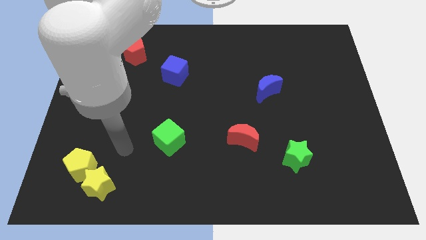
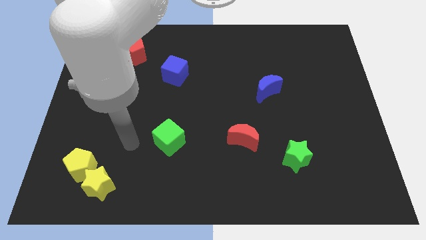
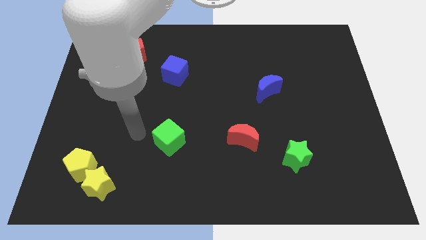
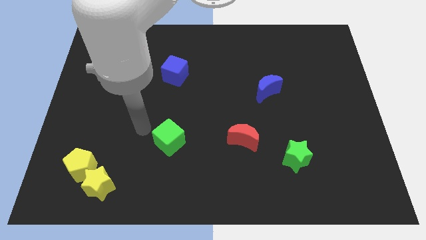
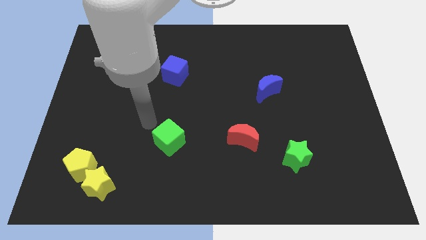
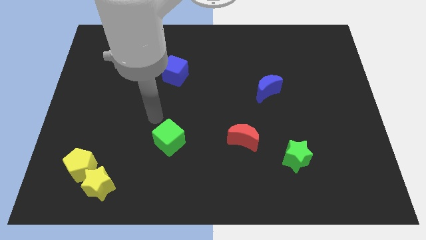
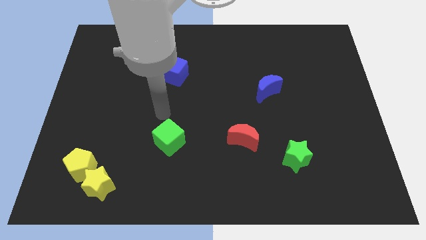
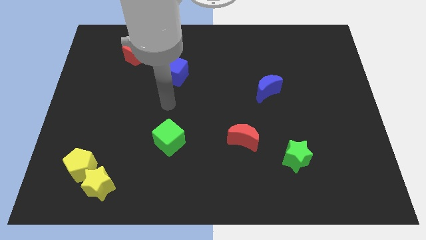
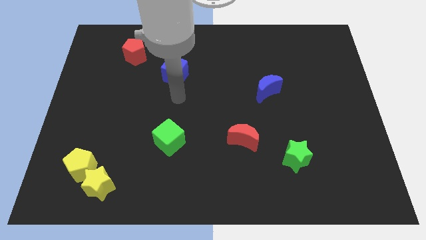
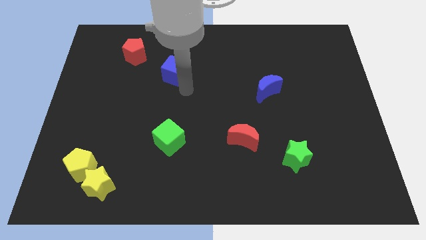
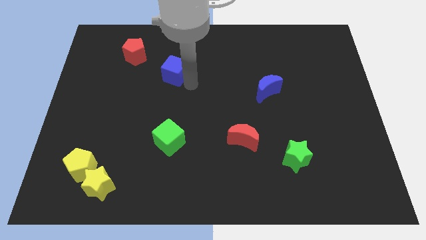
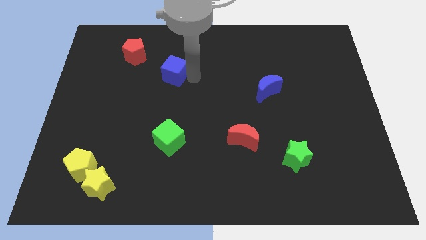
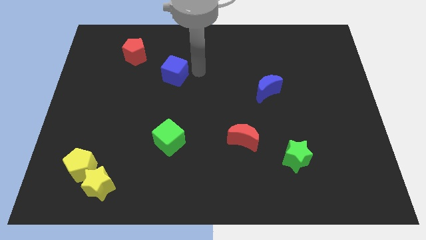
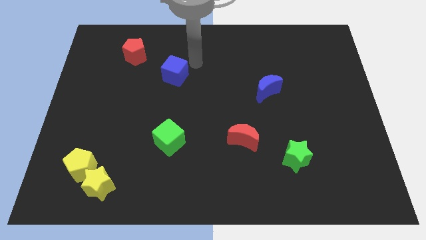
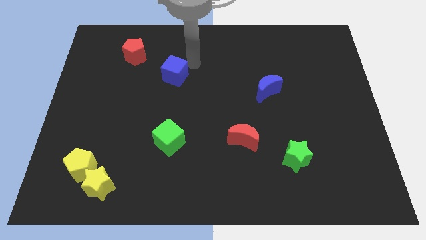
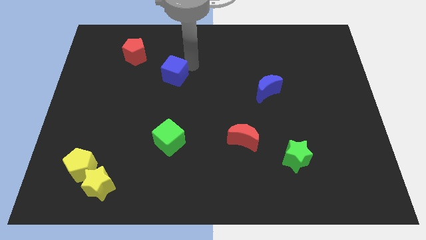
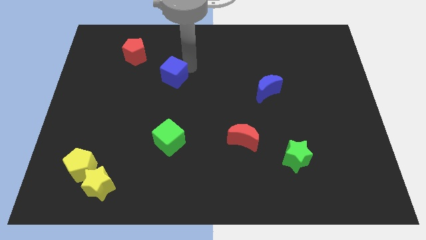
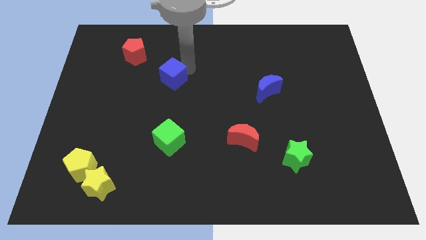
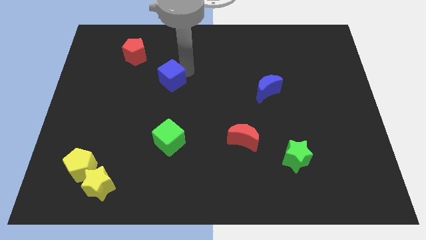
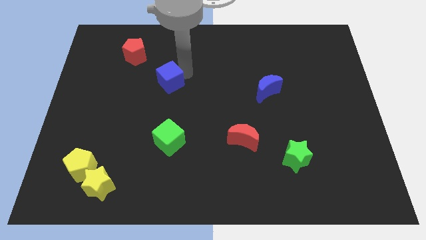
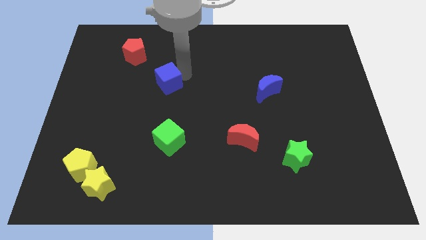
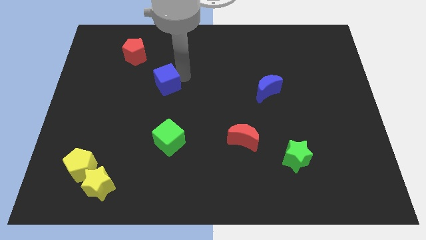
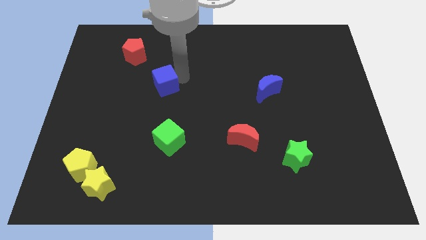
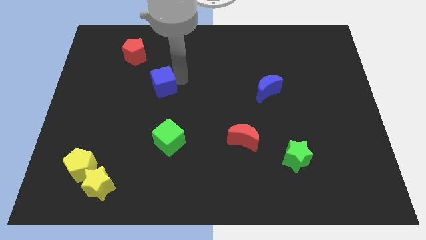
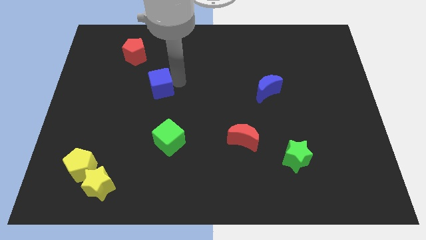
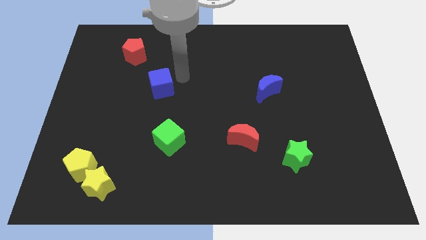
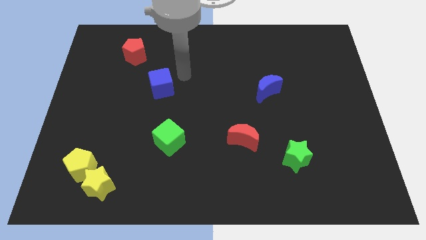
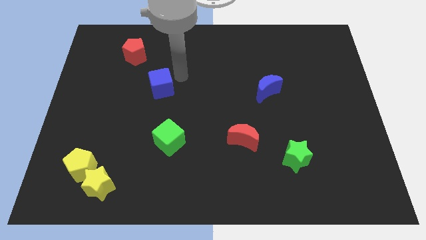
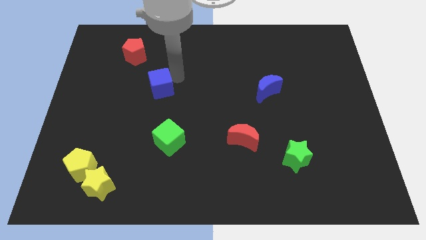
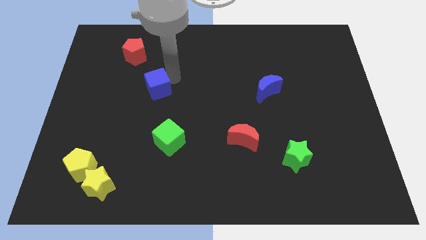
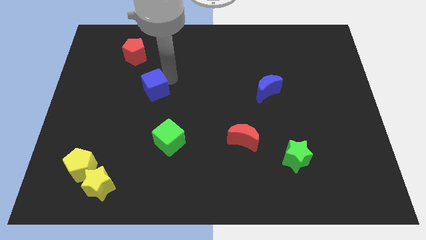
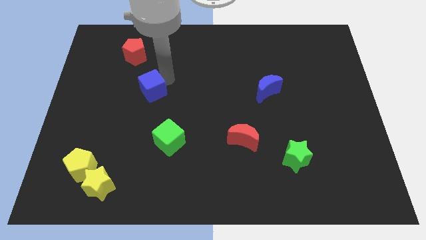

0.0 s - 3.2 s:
move the blue cube down and to the left diagonally a little bit

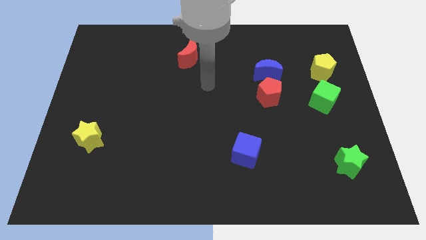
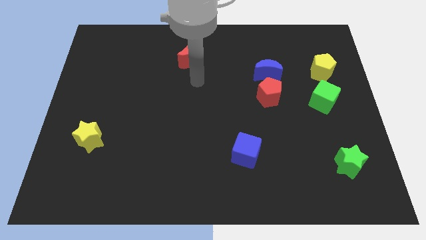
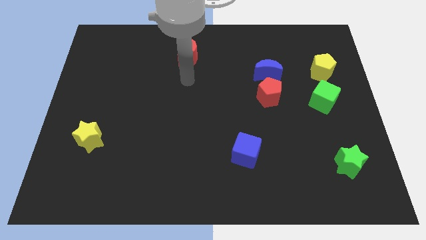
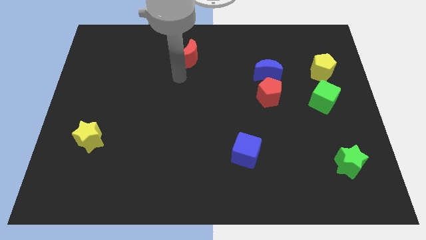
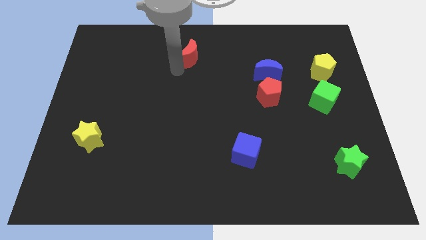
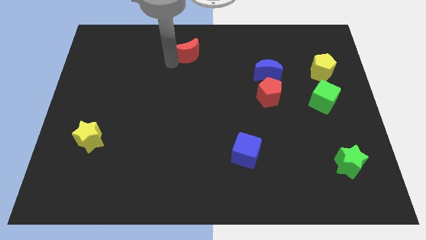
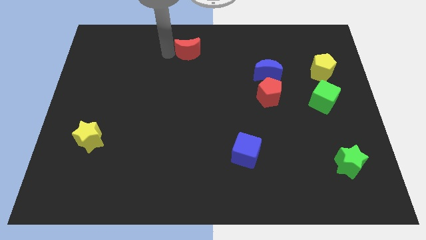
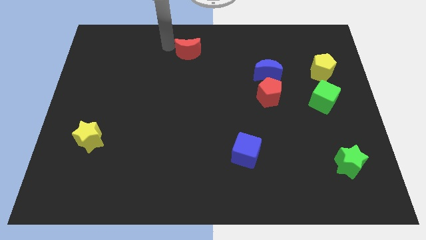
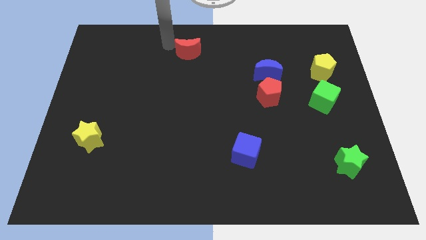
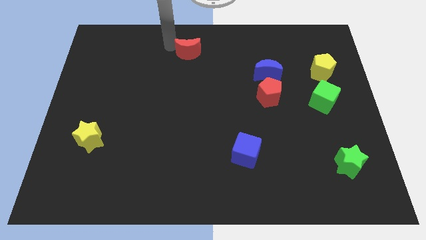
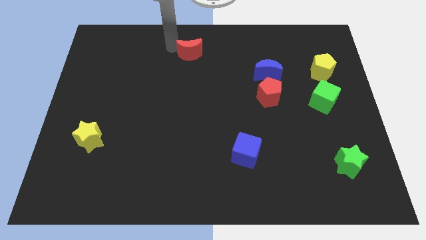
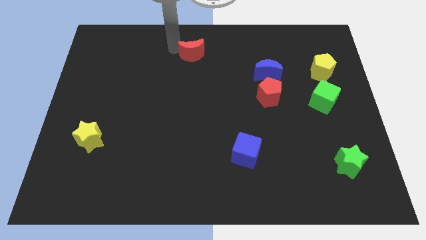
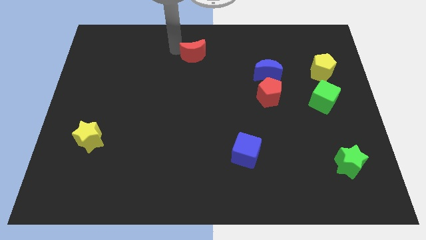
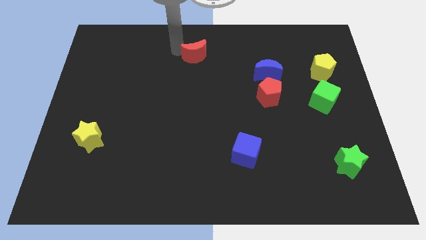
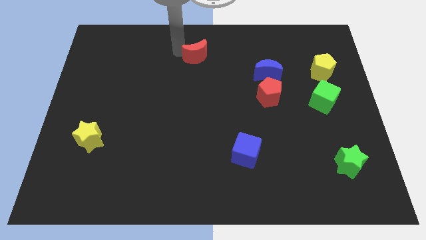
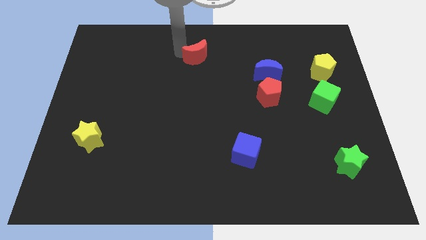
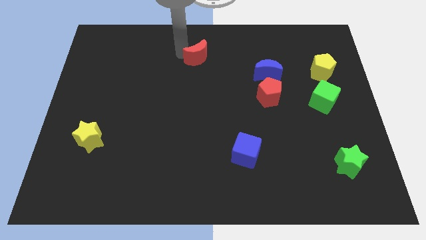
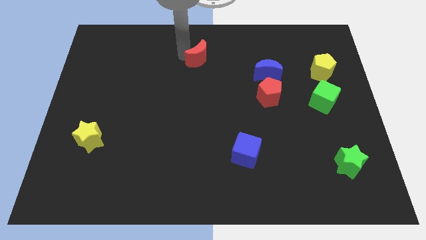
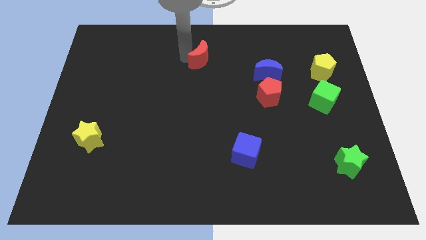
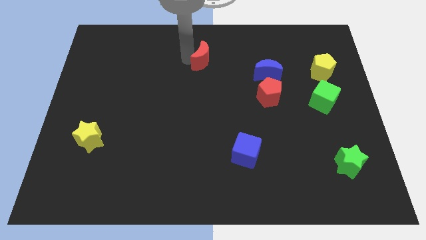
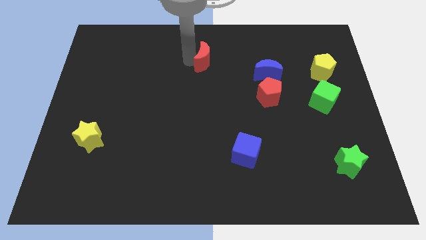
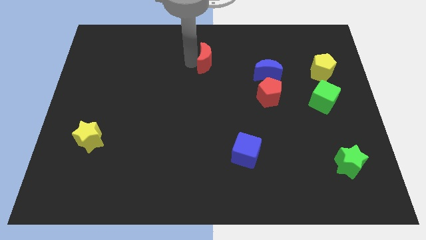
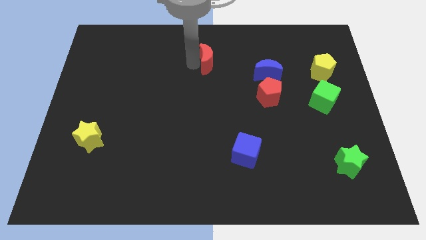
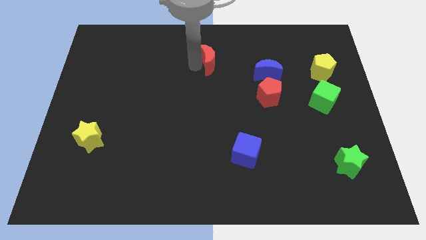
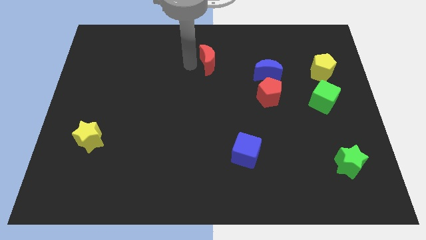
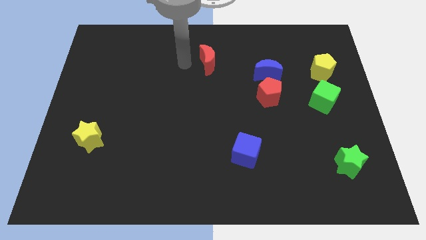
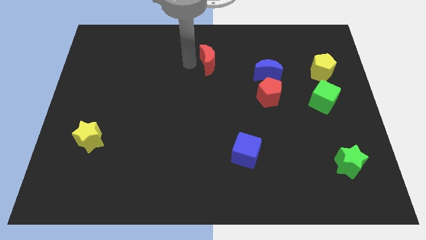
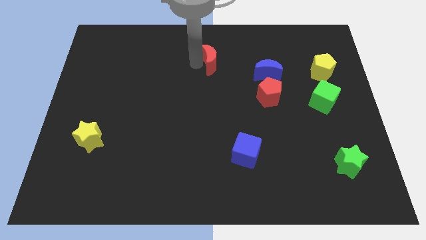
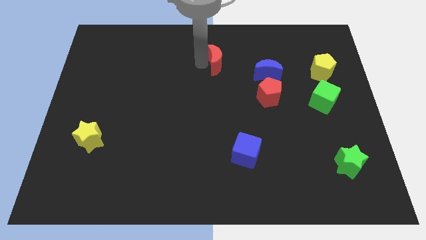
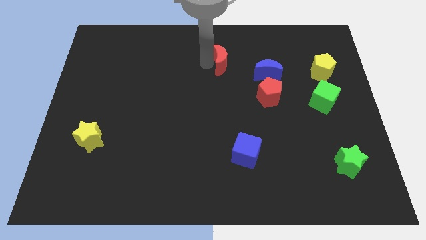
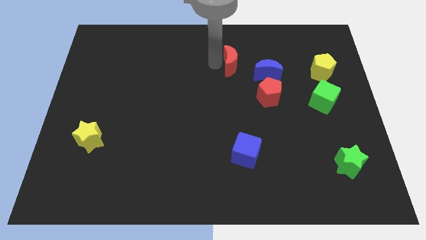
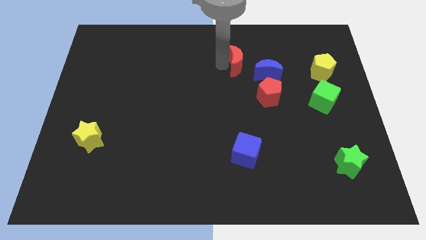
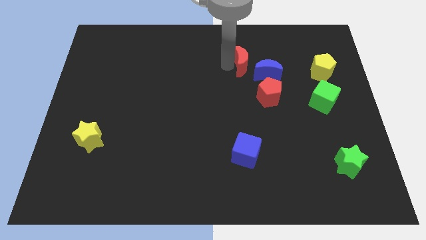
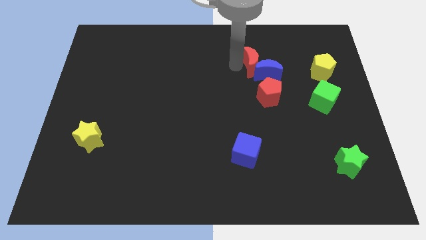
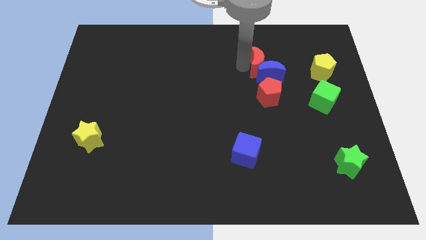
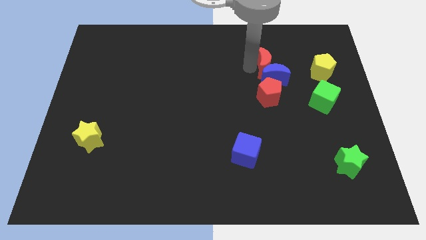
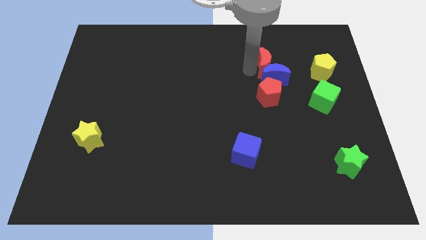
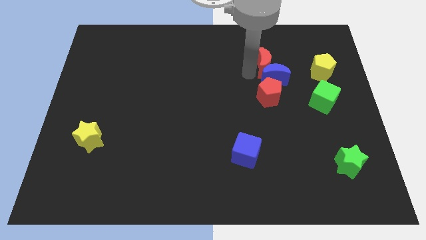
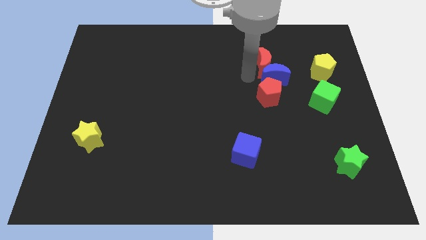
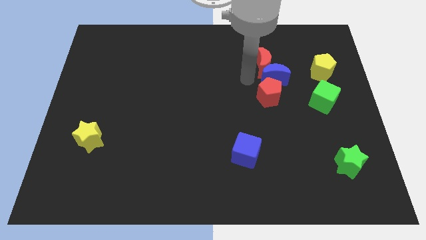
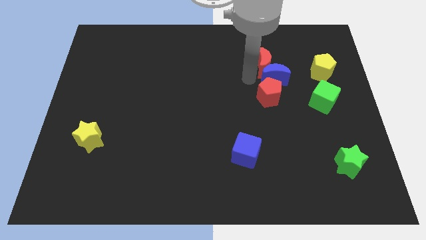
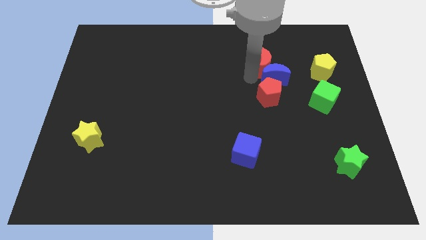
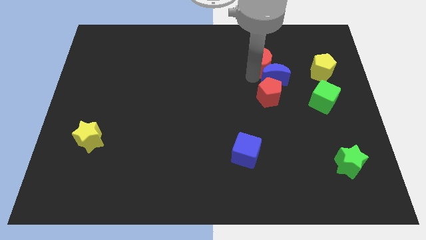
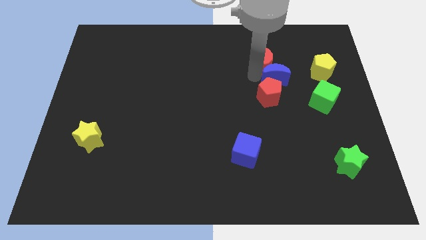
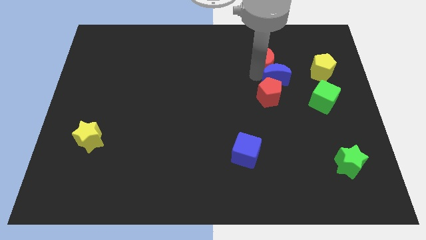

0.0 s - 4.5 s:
move the red moon to the right

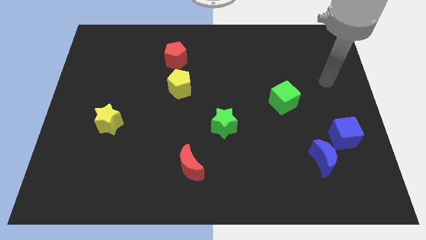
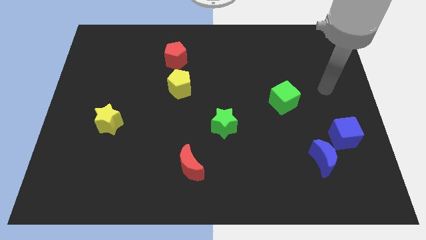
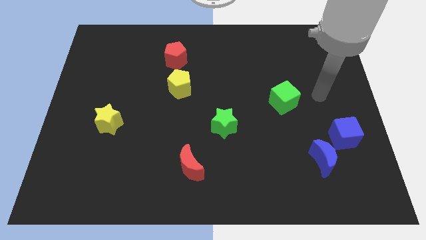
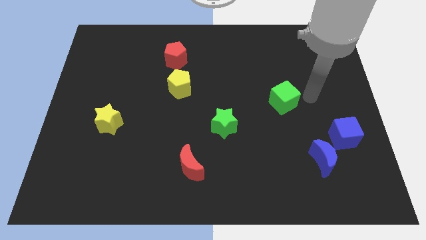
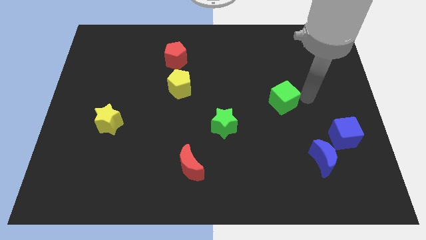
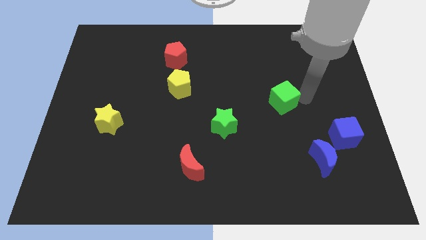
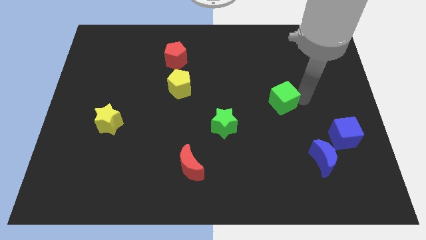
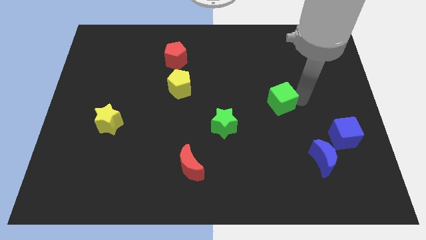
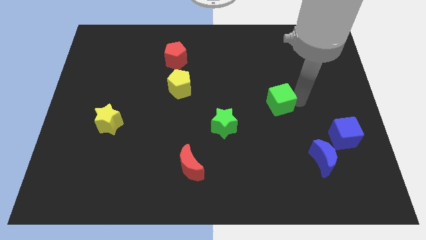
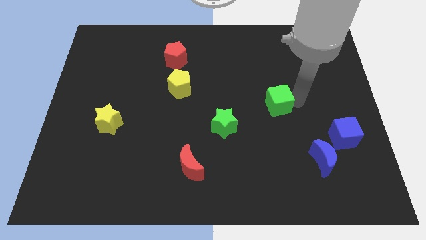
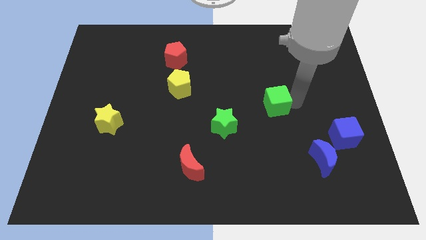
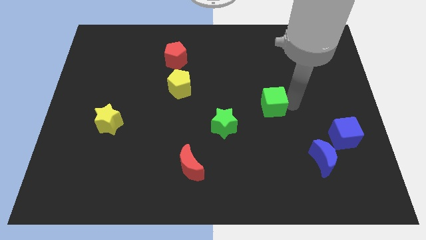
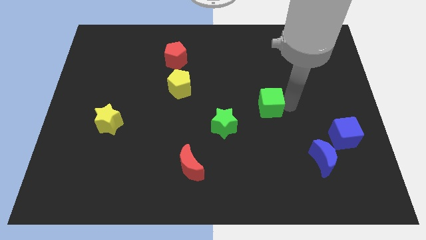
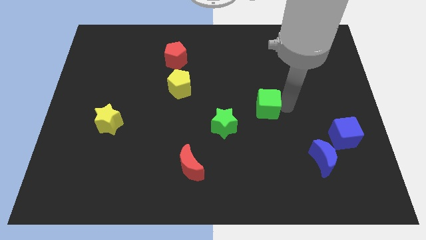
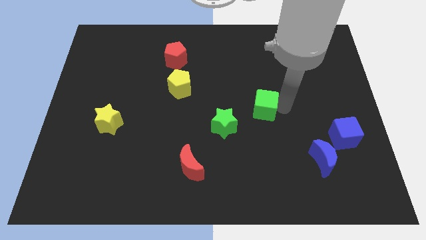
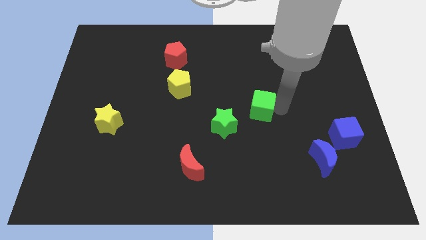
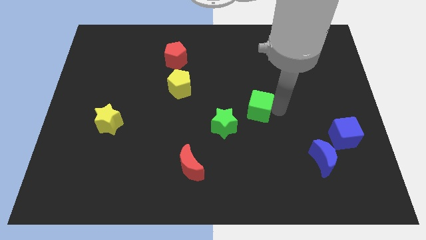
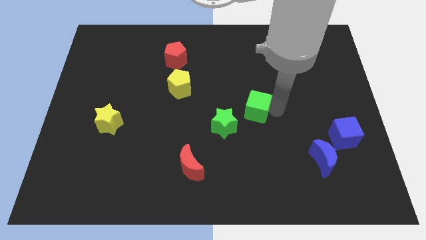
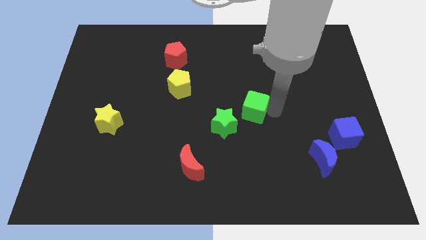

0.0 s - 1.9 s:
slightly push the green cube left
